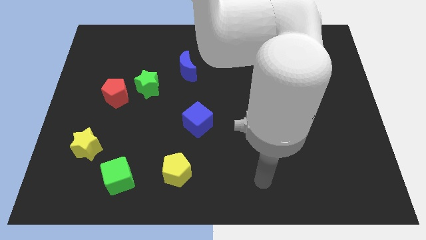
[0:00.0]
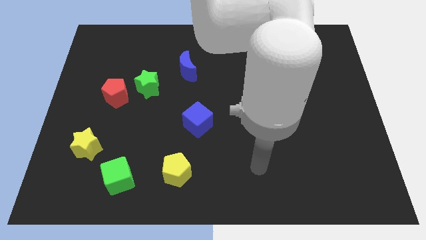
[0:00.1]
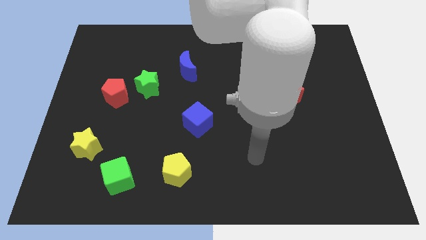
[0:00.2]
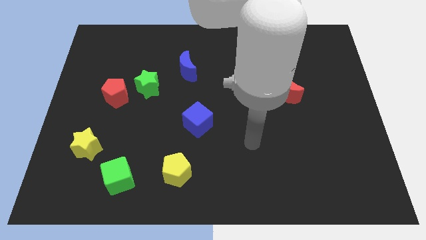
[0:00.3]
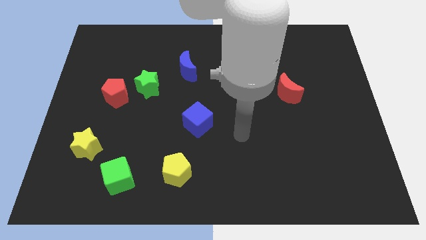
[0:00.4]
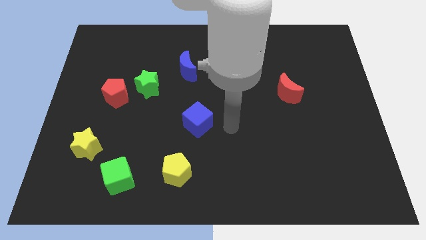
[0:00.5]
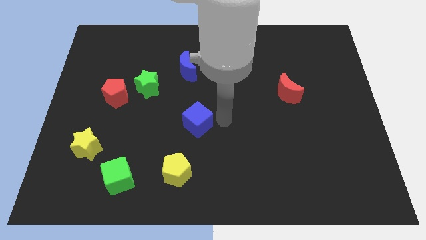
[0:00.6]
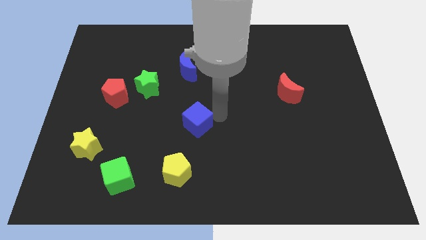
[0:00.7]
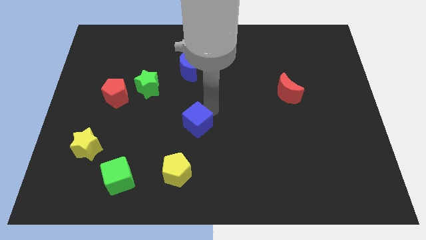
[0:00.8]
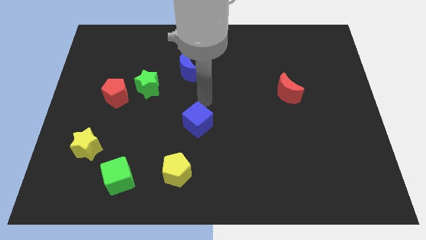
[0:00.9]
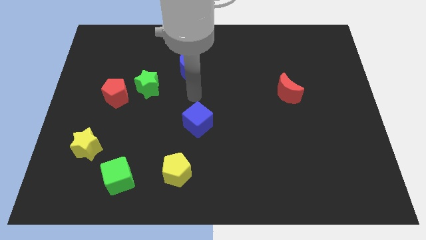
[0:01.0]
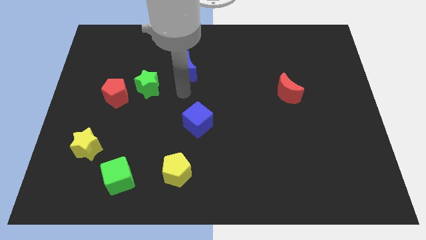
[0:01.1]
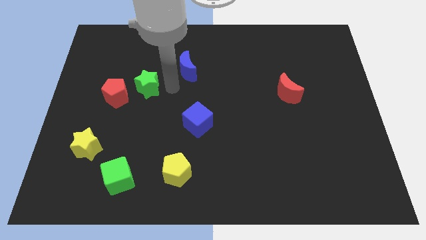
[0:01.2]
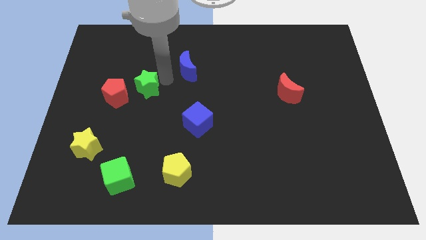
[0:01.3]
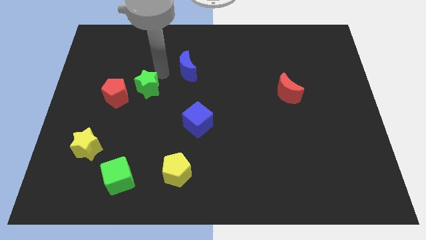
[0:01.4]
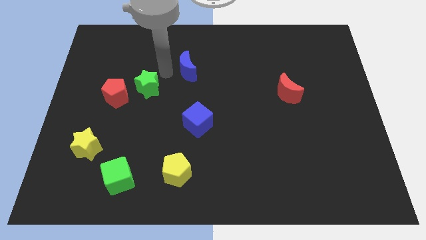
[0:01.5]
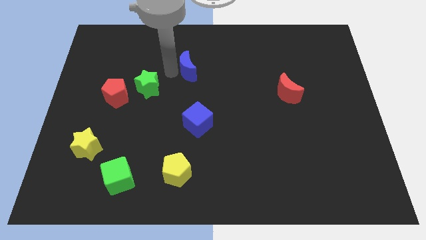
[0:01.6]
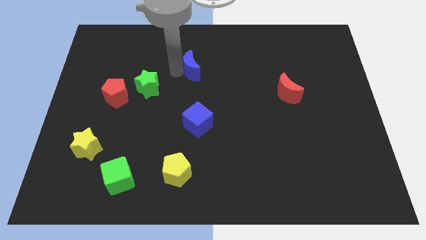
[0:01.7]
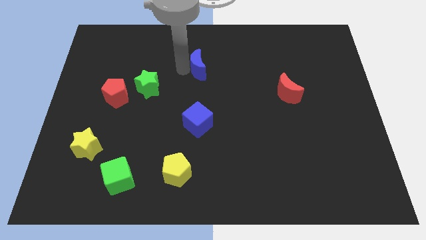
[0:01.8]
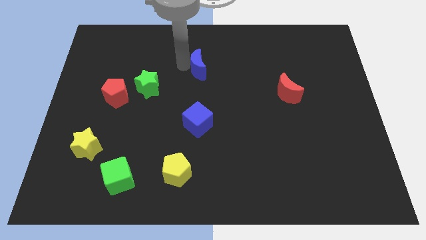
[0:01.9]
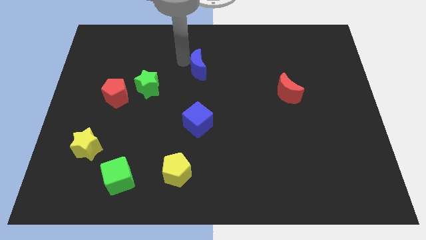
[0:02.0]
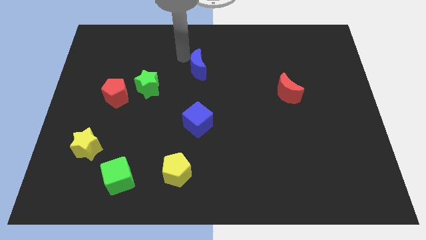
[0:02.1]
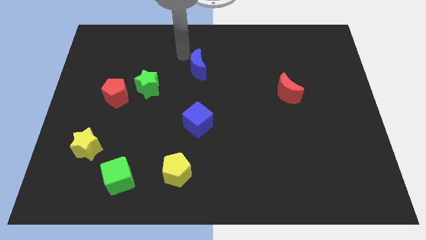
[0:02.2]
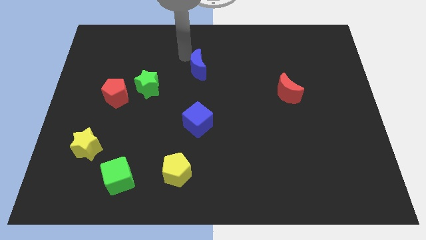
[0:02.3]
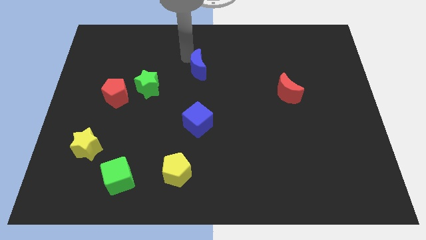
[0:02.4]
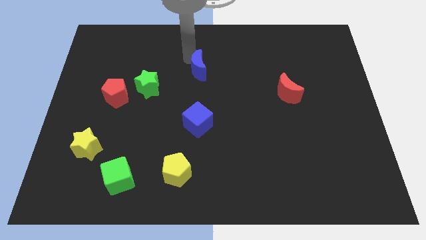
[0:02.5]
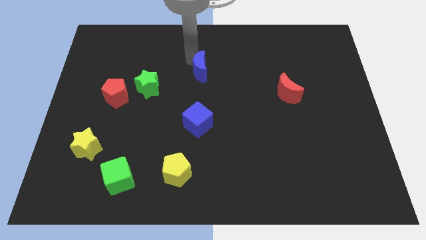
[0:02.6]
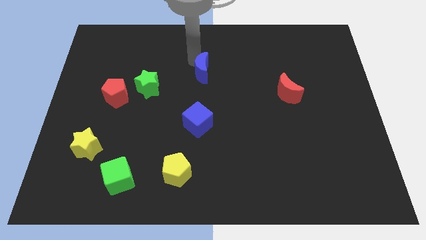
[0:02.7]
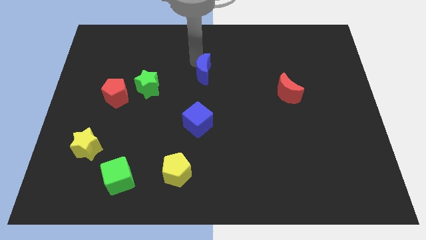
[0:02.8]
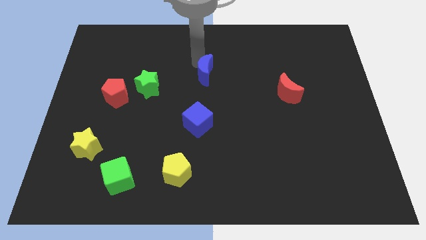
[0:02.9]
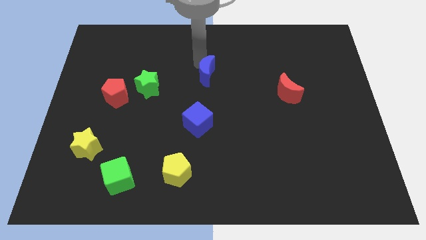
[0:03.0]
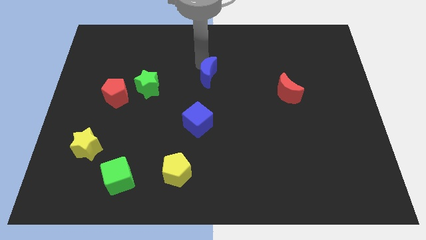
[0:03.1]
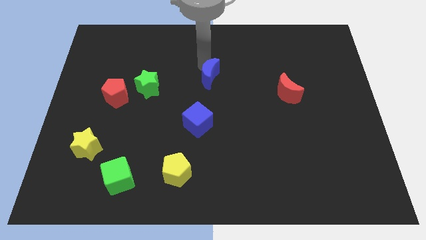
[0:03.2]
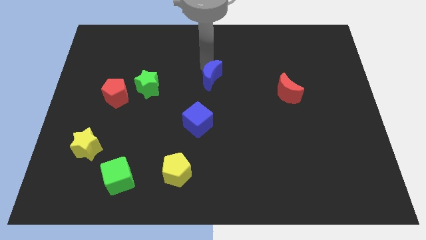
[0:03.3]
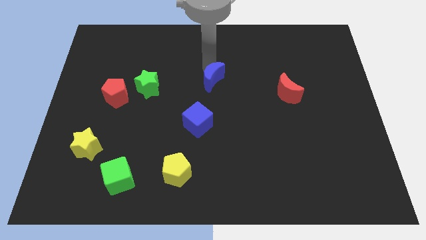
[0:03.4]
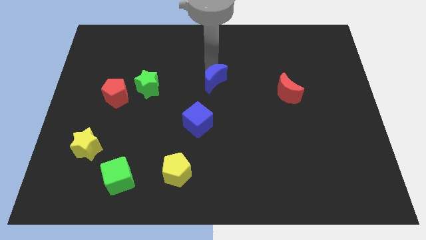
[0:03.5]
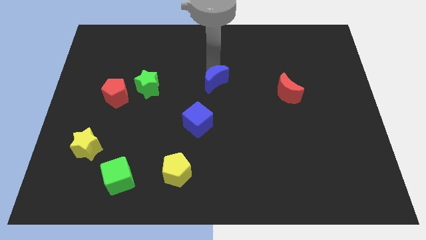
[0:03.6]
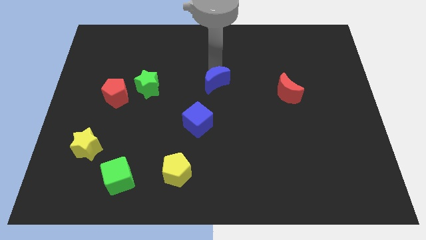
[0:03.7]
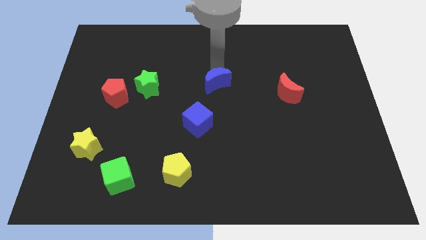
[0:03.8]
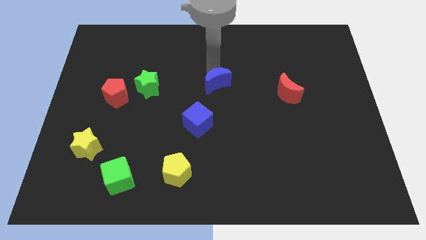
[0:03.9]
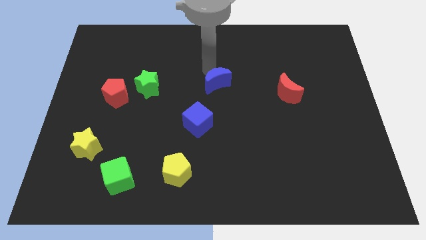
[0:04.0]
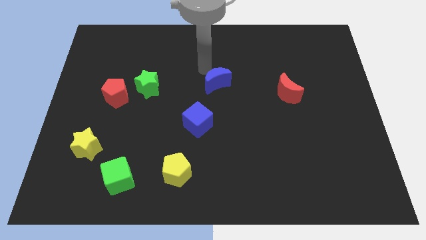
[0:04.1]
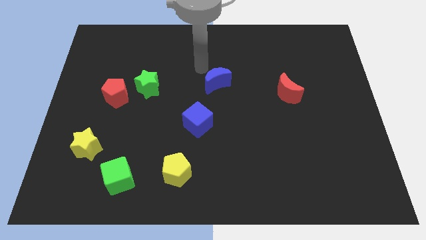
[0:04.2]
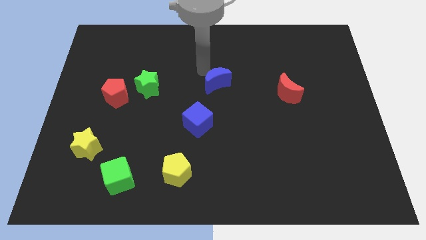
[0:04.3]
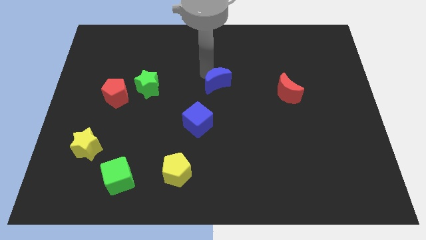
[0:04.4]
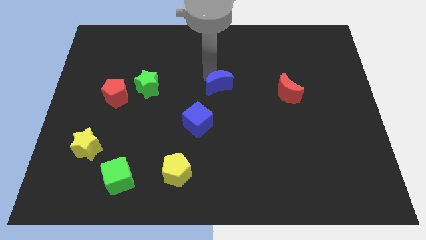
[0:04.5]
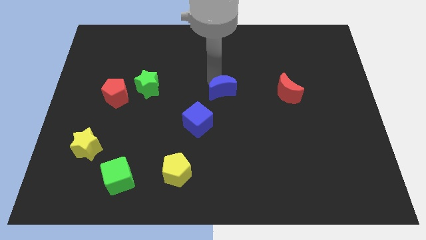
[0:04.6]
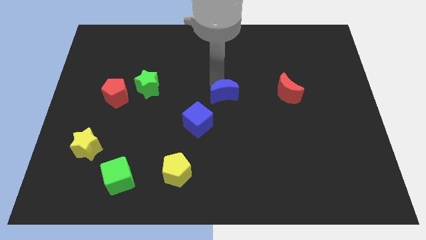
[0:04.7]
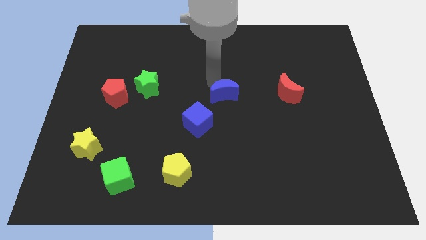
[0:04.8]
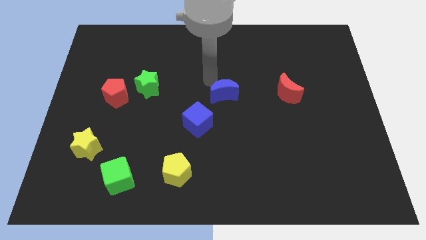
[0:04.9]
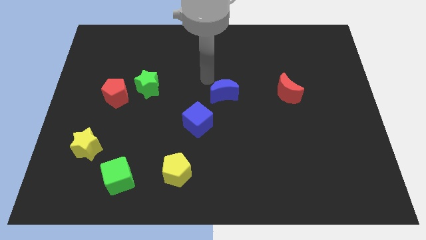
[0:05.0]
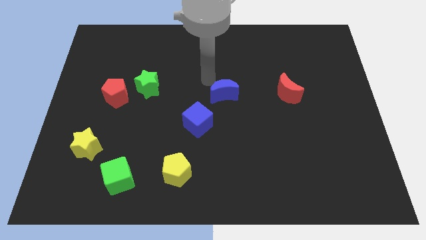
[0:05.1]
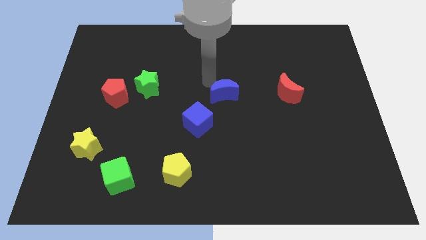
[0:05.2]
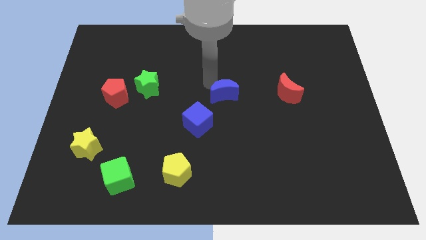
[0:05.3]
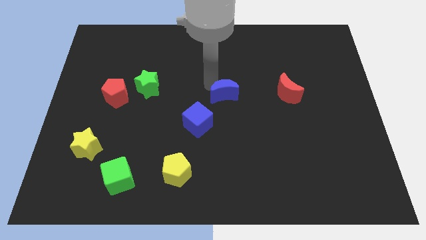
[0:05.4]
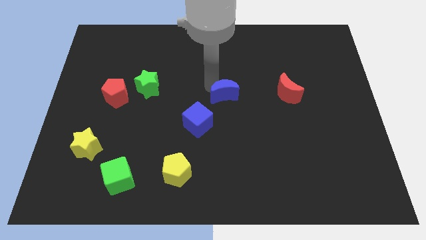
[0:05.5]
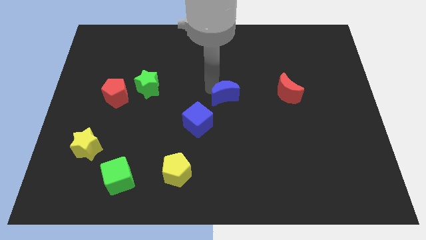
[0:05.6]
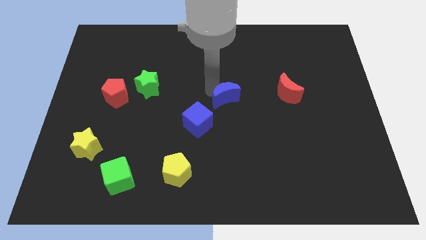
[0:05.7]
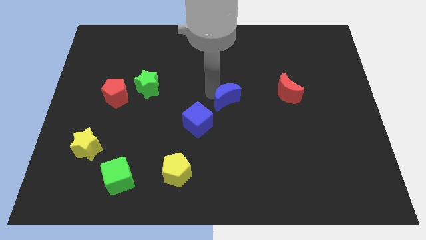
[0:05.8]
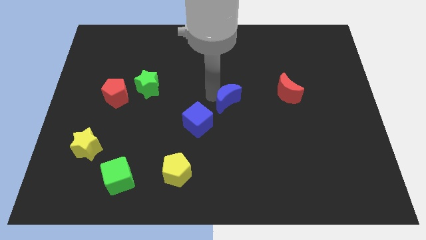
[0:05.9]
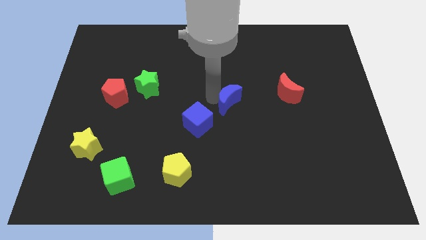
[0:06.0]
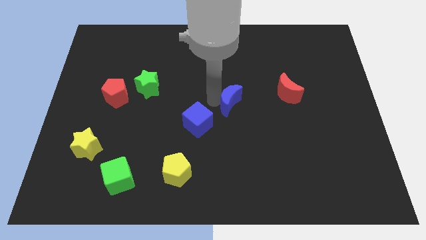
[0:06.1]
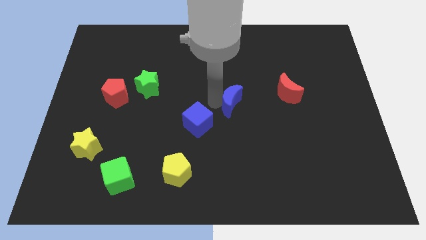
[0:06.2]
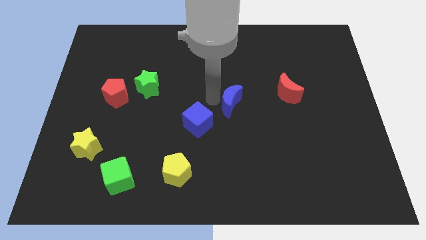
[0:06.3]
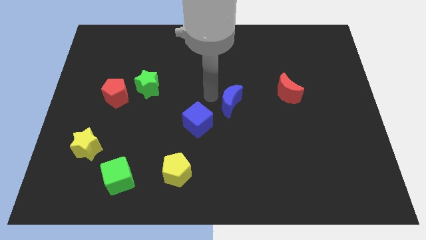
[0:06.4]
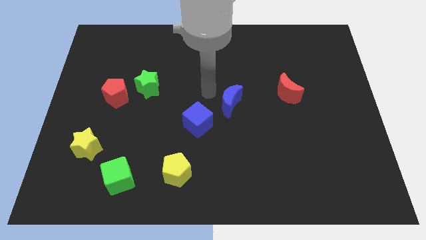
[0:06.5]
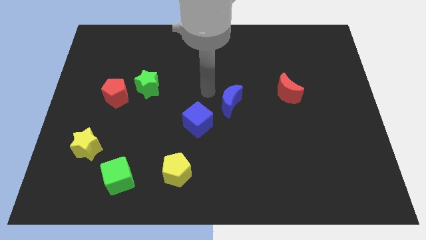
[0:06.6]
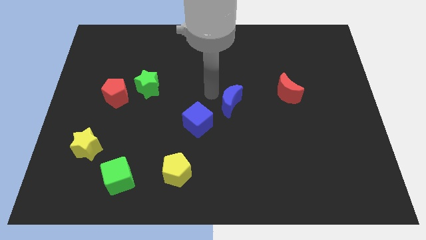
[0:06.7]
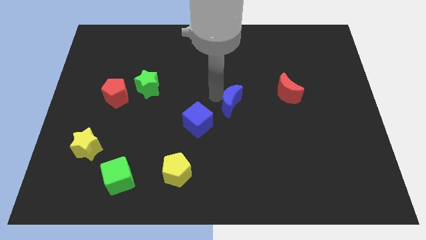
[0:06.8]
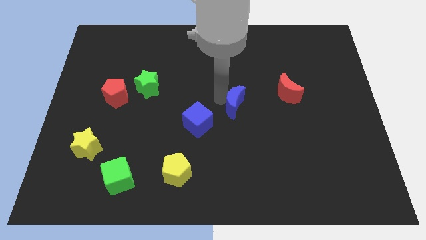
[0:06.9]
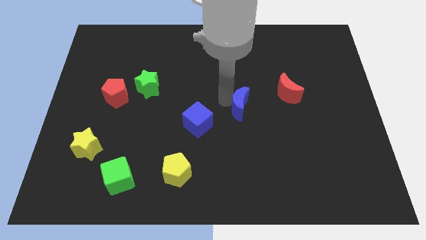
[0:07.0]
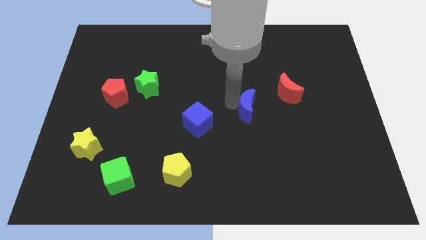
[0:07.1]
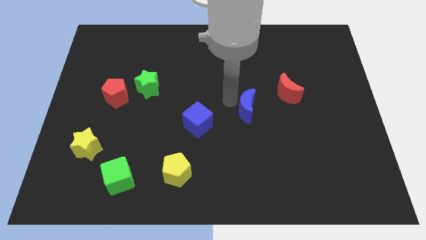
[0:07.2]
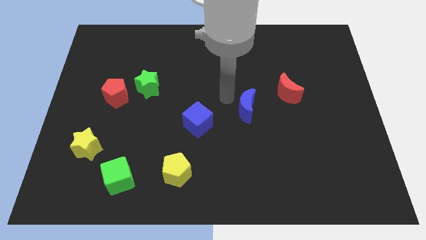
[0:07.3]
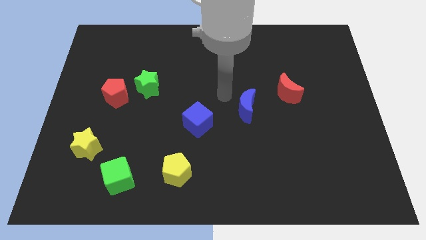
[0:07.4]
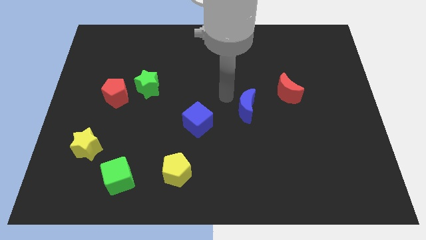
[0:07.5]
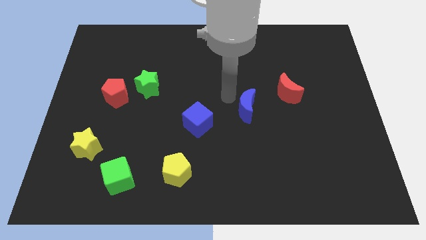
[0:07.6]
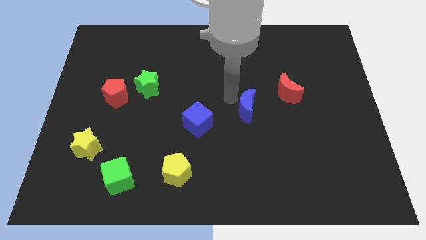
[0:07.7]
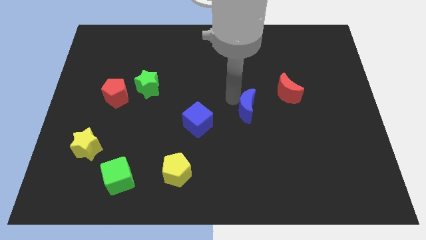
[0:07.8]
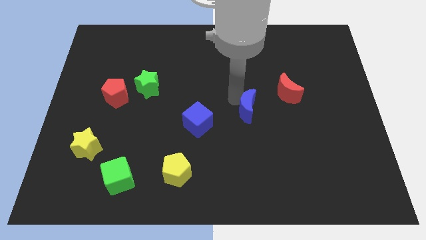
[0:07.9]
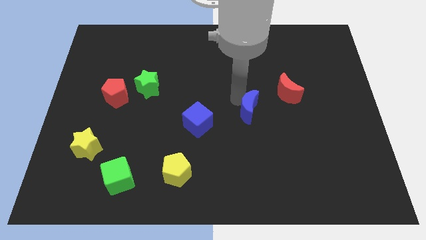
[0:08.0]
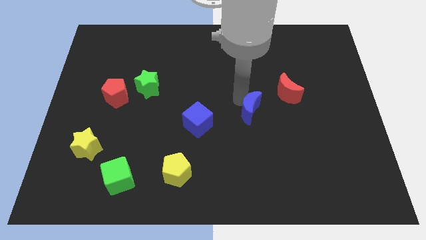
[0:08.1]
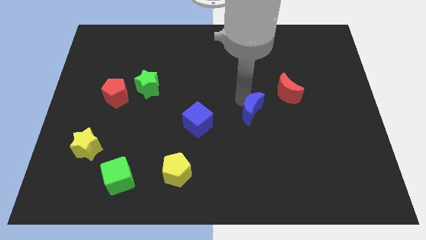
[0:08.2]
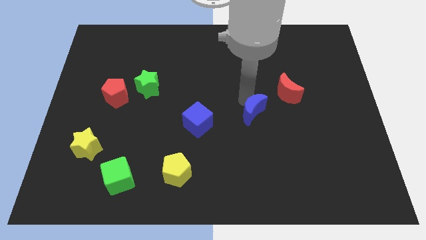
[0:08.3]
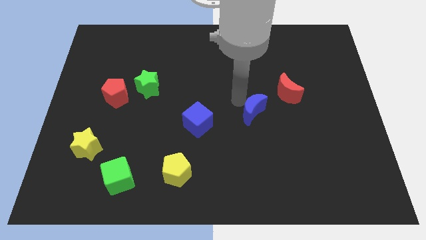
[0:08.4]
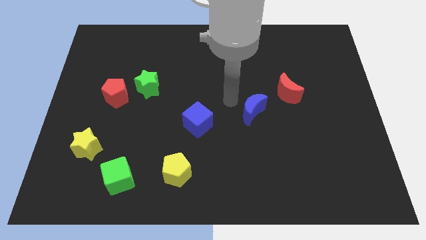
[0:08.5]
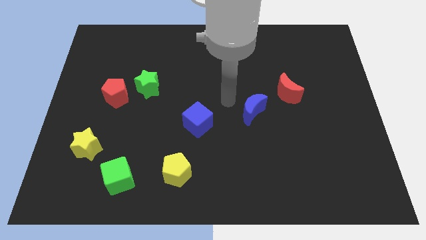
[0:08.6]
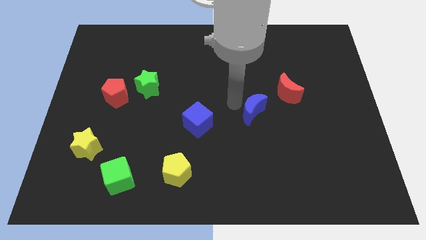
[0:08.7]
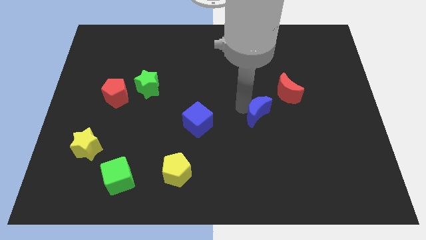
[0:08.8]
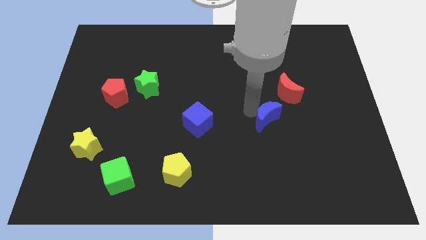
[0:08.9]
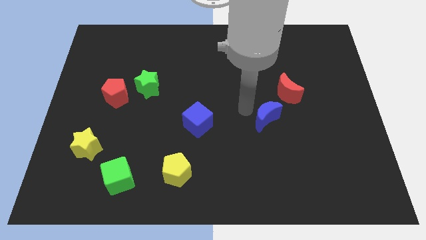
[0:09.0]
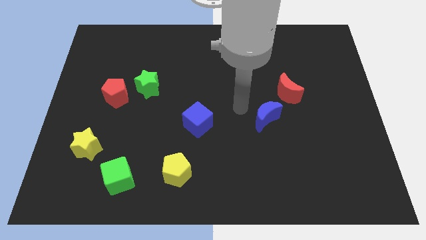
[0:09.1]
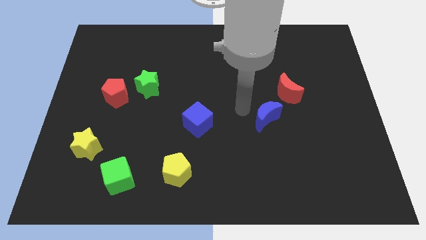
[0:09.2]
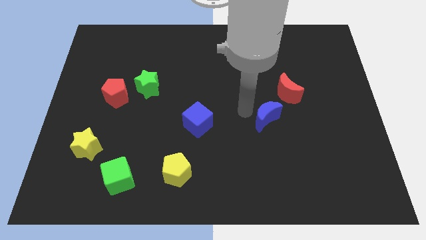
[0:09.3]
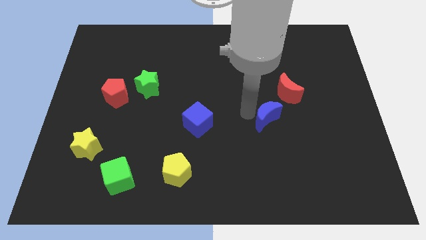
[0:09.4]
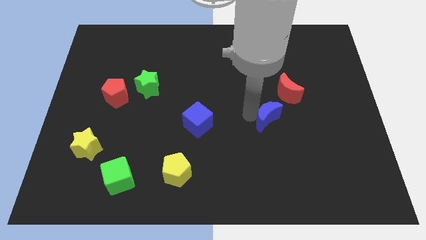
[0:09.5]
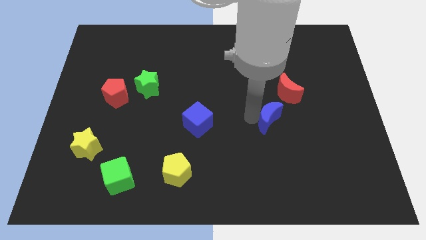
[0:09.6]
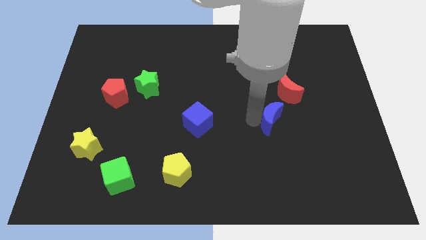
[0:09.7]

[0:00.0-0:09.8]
move the blue moon to the bottom side of the red moon
